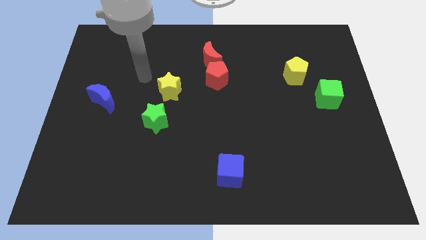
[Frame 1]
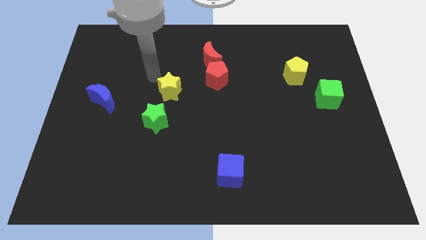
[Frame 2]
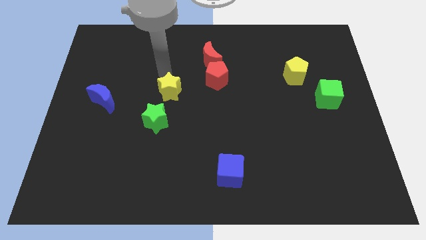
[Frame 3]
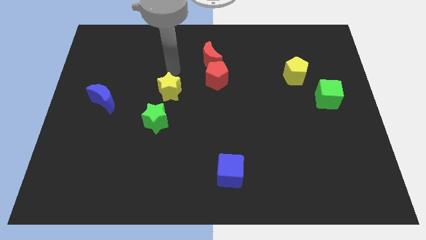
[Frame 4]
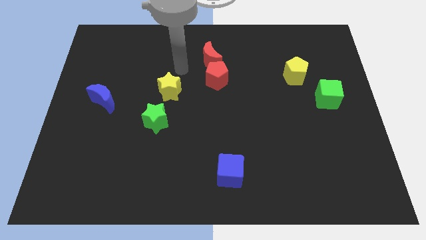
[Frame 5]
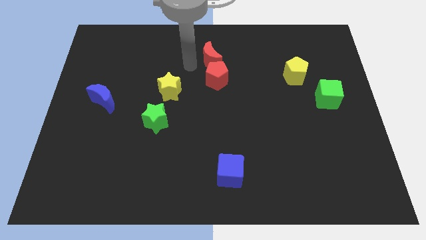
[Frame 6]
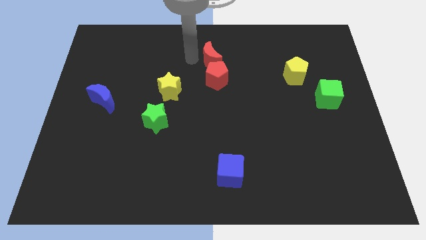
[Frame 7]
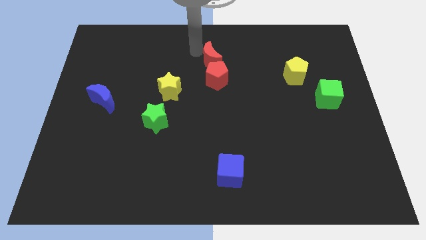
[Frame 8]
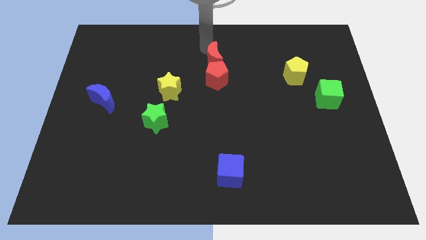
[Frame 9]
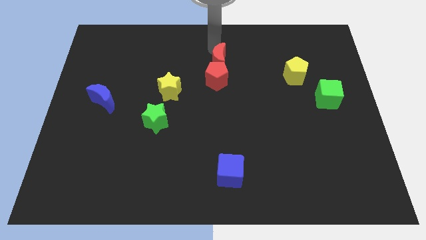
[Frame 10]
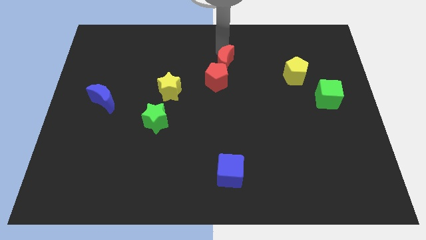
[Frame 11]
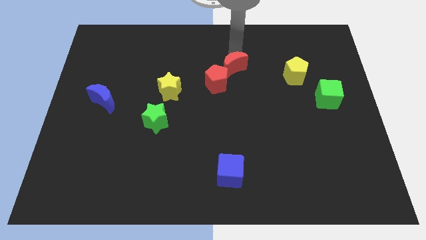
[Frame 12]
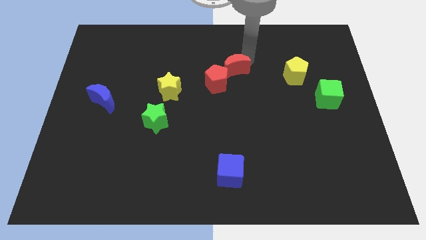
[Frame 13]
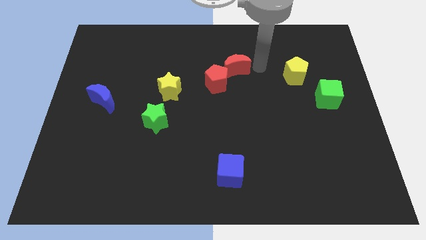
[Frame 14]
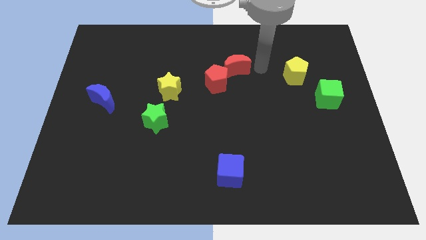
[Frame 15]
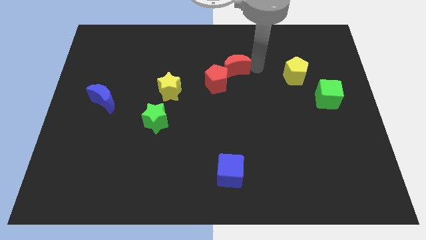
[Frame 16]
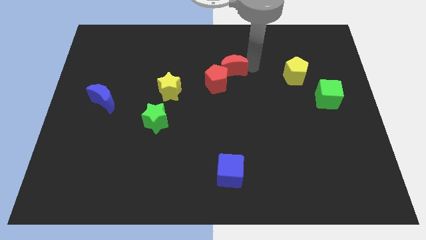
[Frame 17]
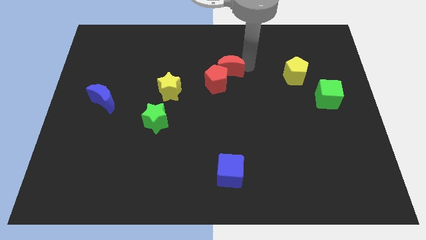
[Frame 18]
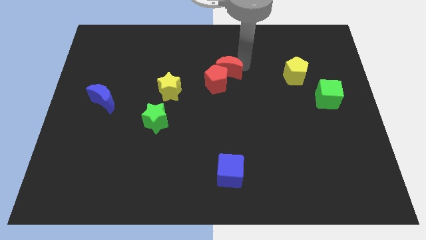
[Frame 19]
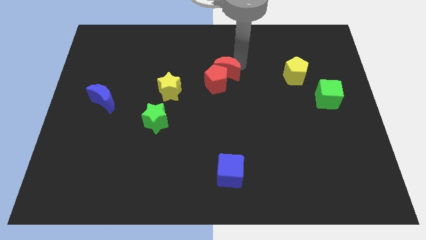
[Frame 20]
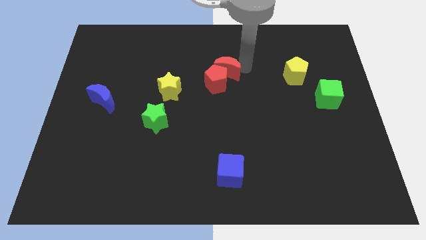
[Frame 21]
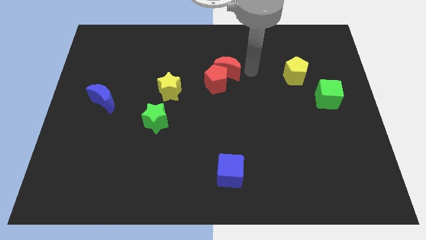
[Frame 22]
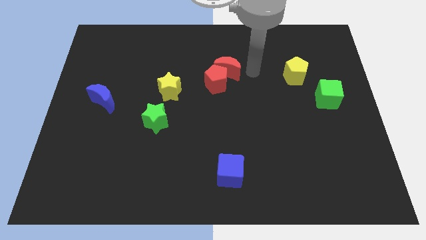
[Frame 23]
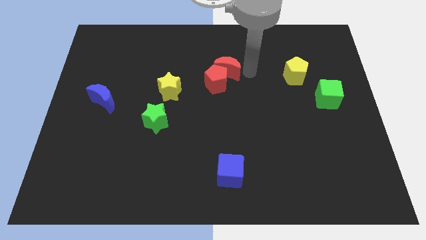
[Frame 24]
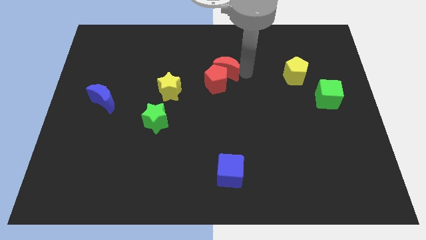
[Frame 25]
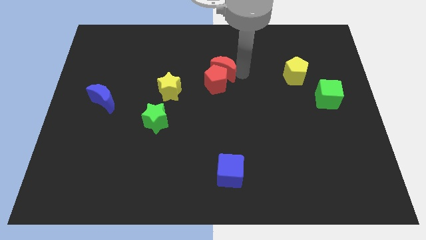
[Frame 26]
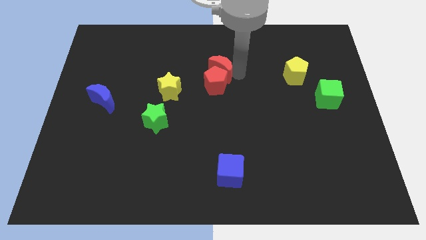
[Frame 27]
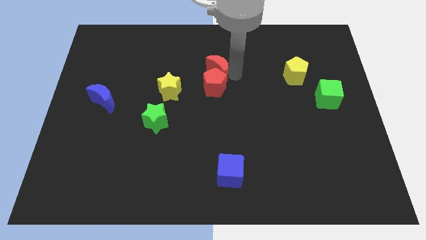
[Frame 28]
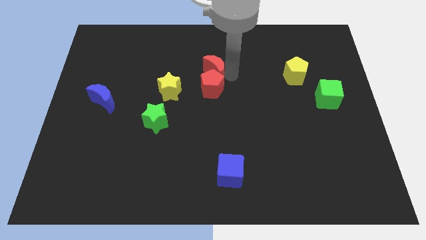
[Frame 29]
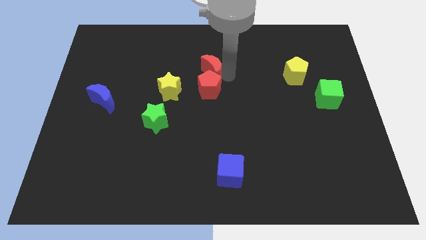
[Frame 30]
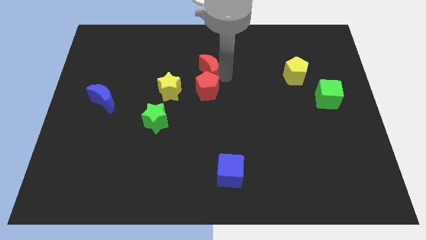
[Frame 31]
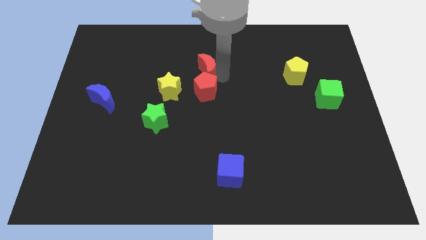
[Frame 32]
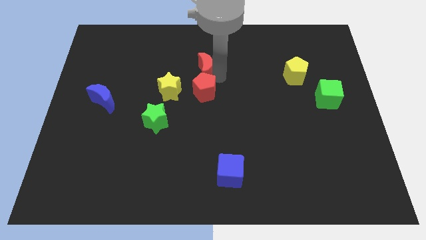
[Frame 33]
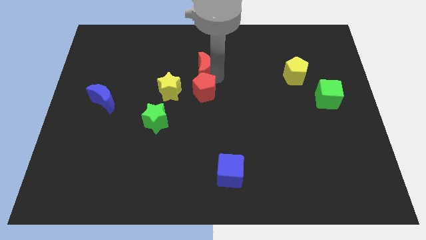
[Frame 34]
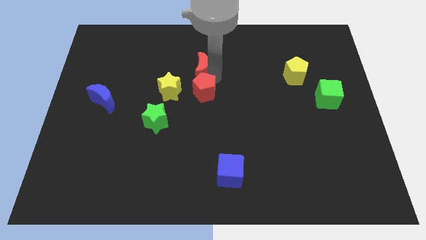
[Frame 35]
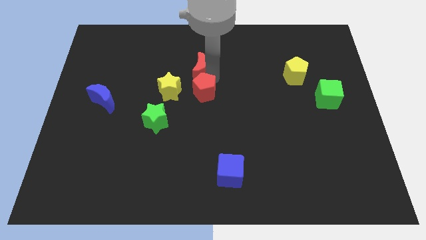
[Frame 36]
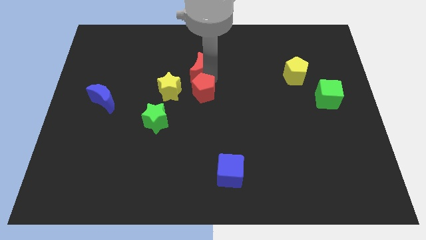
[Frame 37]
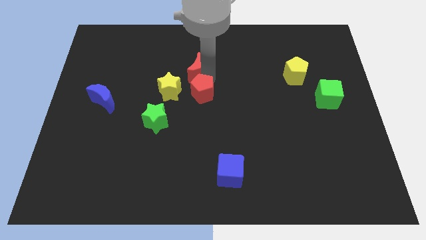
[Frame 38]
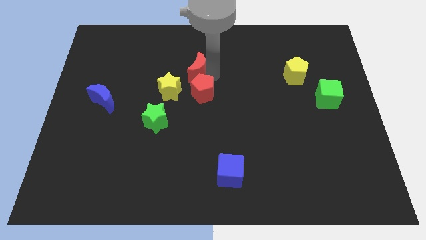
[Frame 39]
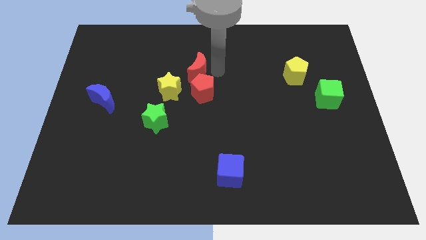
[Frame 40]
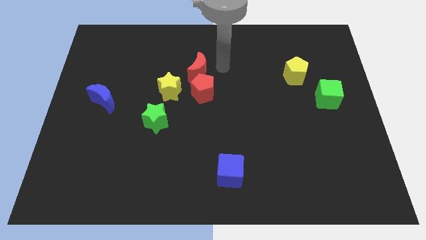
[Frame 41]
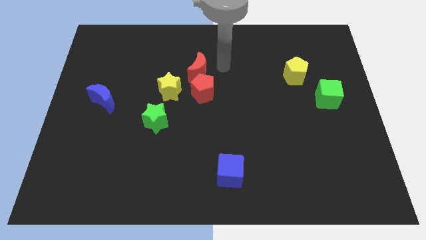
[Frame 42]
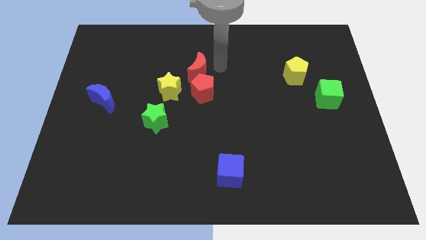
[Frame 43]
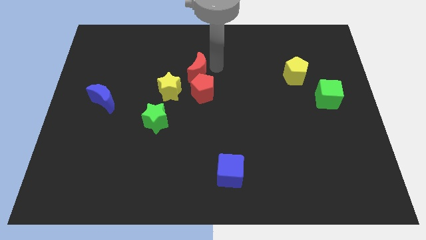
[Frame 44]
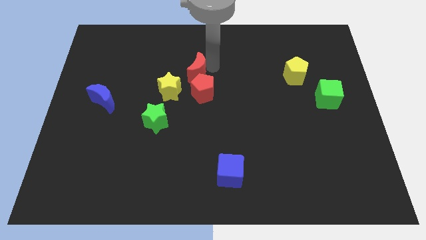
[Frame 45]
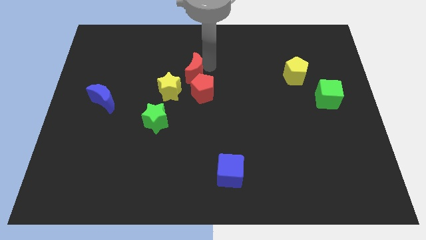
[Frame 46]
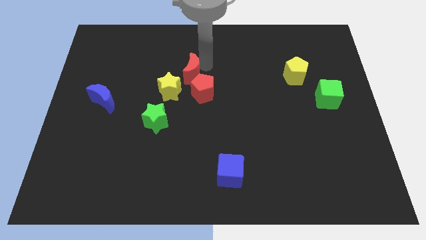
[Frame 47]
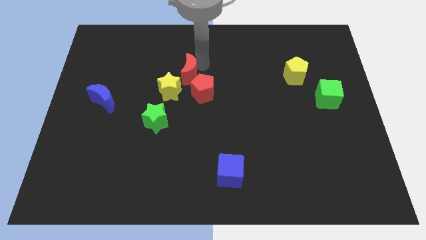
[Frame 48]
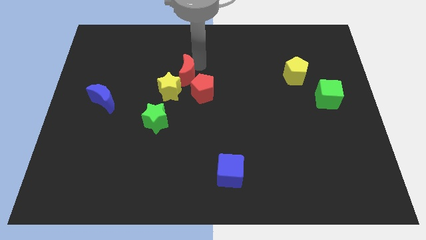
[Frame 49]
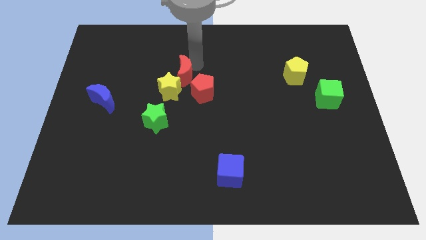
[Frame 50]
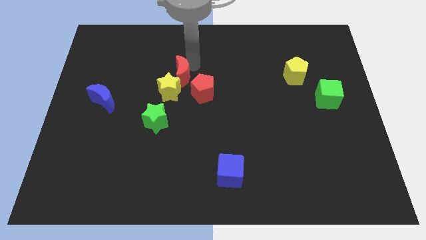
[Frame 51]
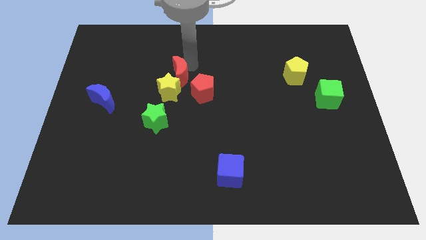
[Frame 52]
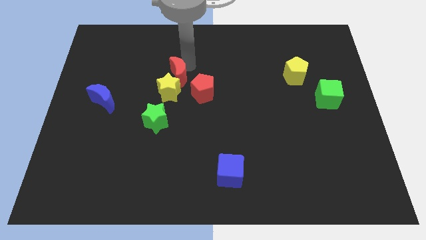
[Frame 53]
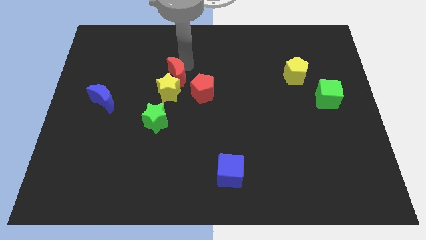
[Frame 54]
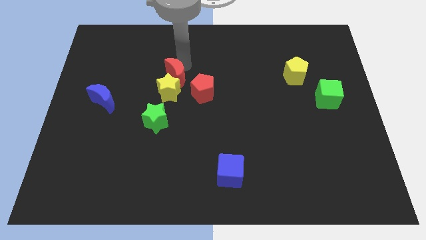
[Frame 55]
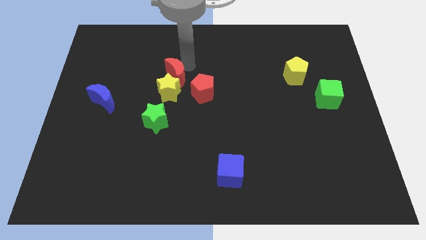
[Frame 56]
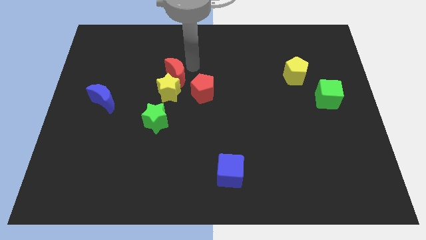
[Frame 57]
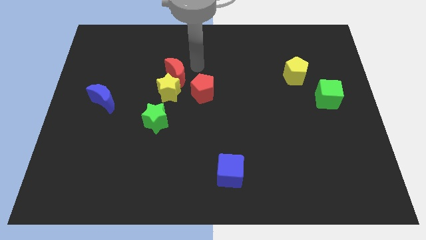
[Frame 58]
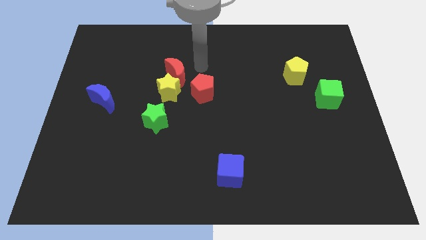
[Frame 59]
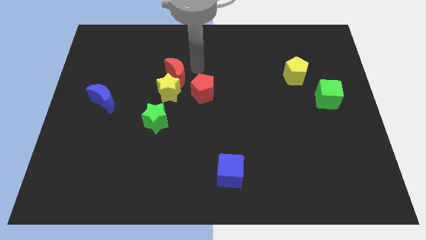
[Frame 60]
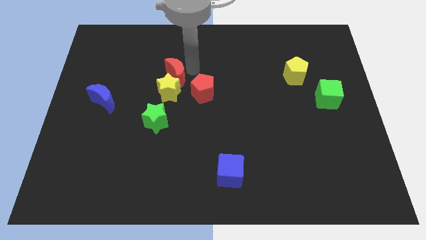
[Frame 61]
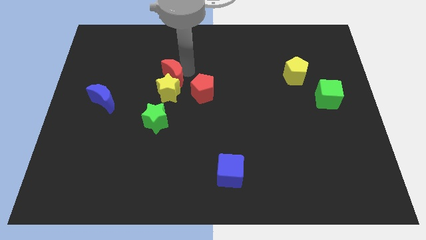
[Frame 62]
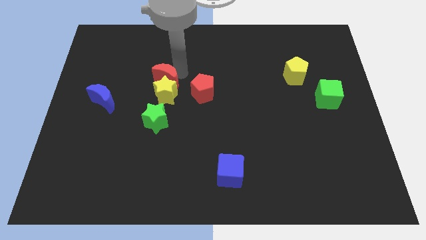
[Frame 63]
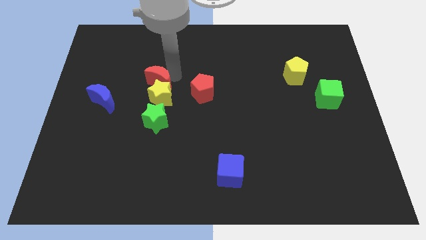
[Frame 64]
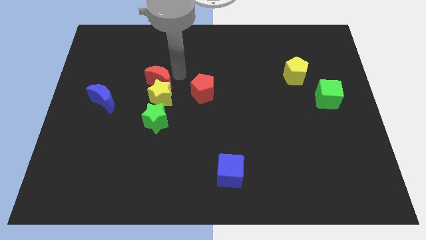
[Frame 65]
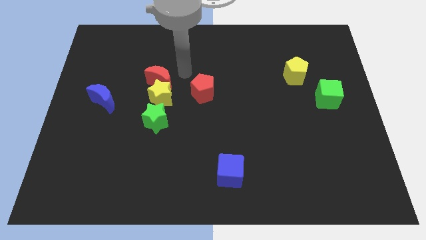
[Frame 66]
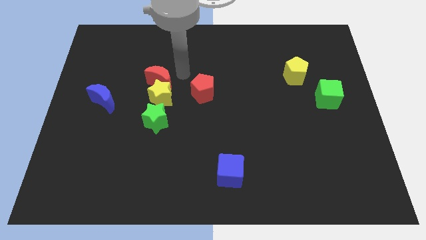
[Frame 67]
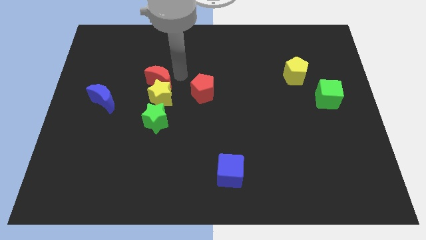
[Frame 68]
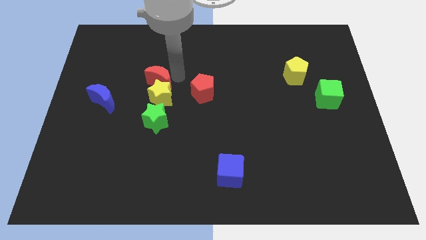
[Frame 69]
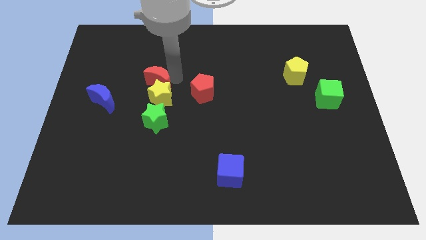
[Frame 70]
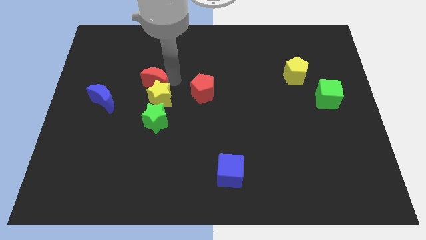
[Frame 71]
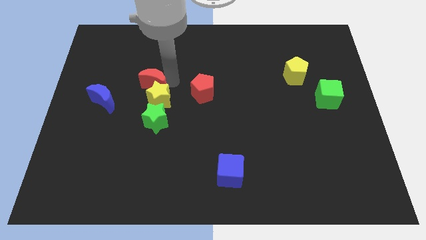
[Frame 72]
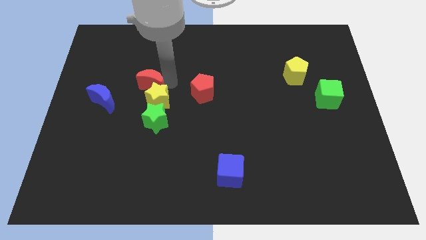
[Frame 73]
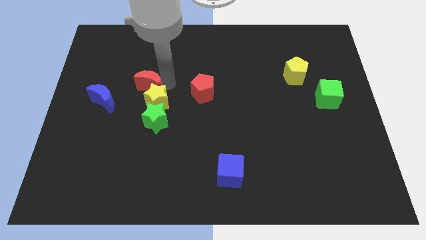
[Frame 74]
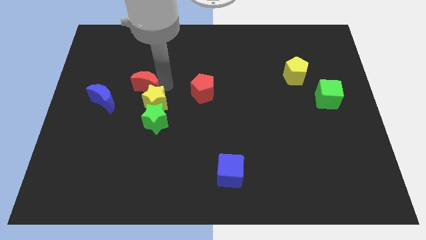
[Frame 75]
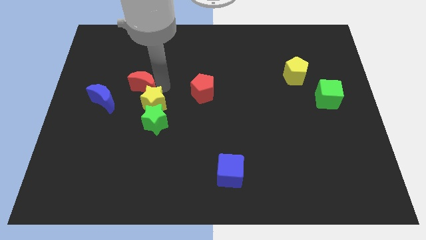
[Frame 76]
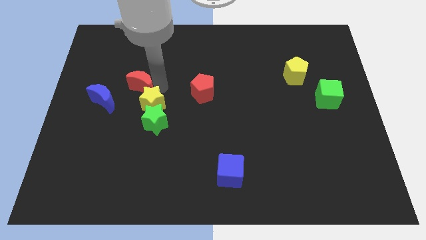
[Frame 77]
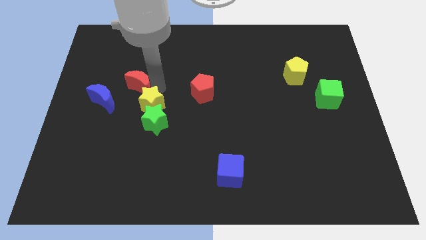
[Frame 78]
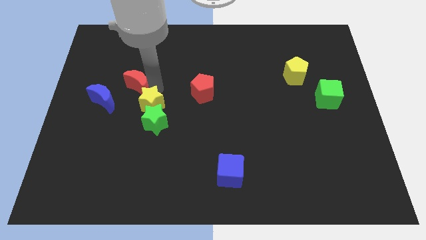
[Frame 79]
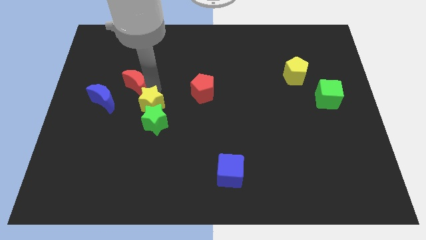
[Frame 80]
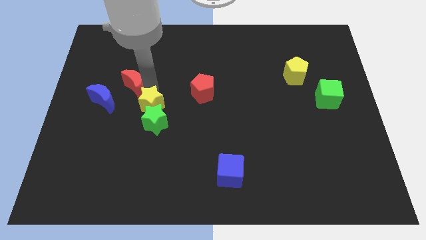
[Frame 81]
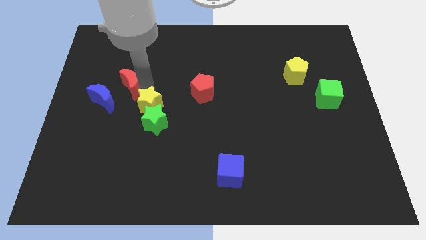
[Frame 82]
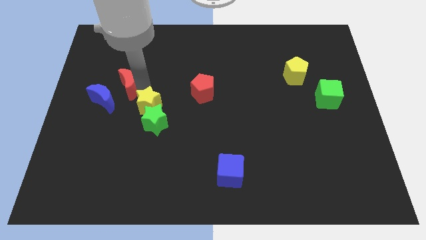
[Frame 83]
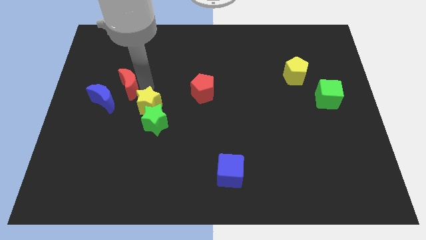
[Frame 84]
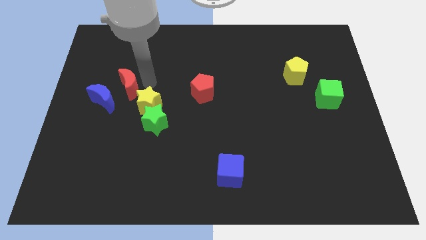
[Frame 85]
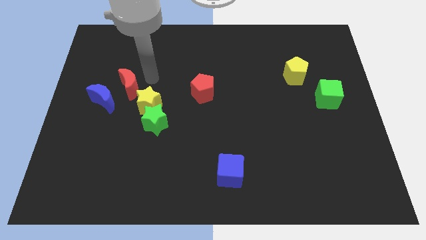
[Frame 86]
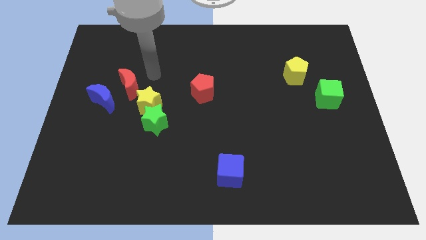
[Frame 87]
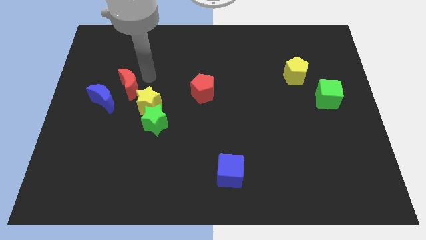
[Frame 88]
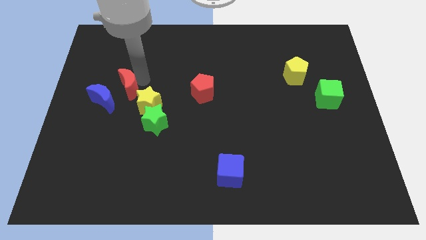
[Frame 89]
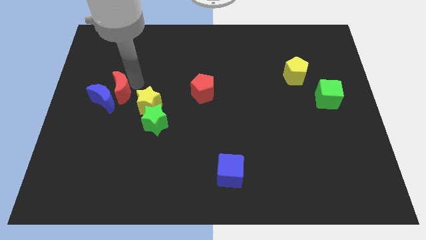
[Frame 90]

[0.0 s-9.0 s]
slide the red moon towards the blue moon
